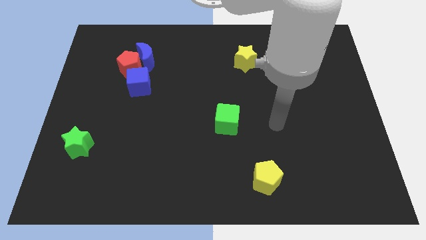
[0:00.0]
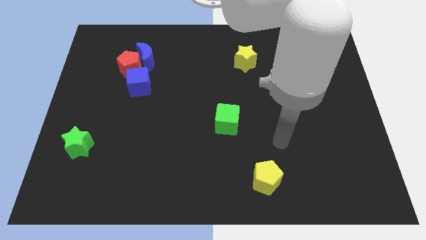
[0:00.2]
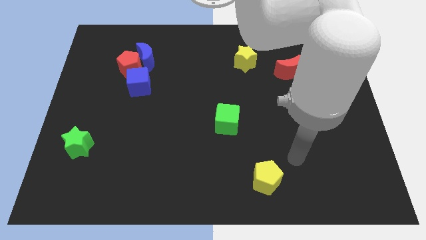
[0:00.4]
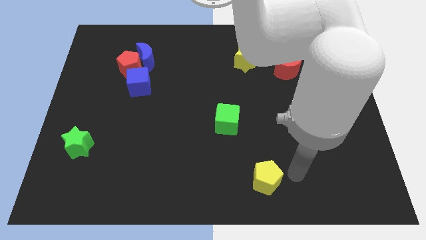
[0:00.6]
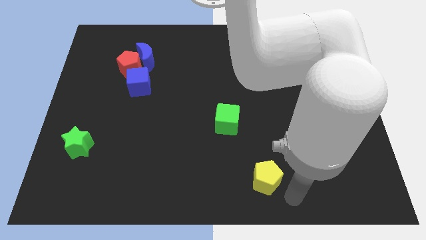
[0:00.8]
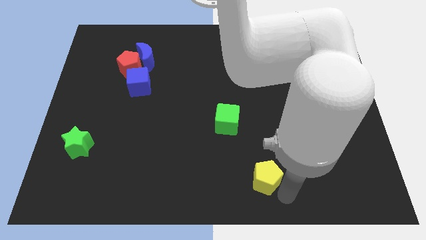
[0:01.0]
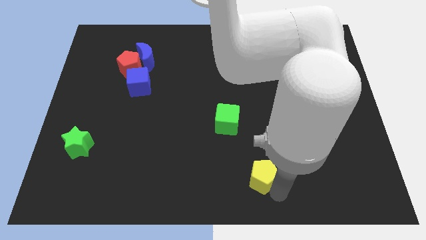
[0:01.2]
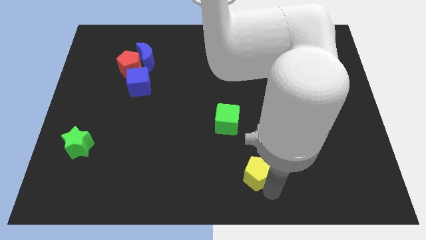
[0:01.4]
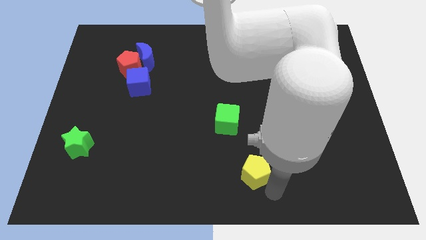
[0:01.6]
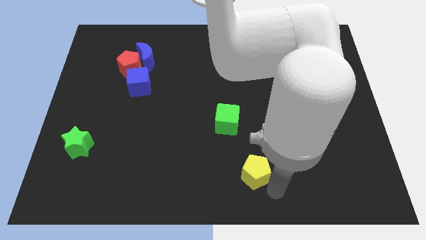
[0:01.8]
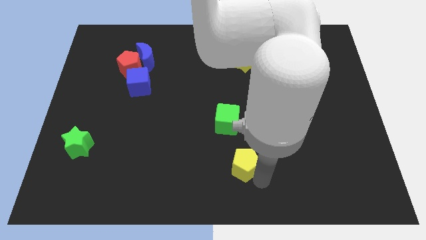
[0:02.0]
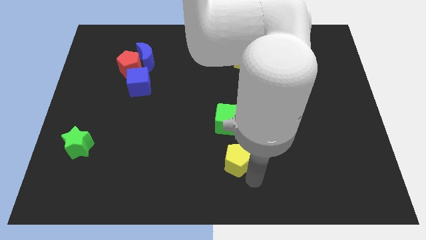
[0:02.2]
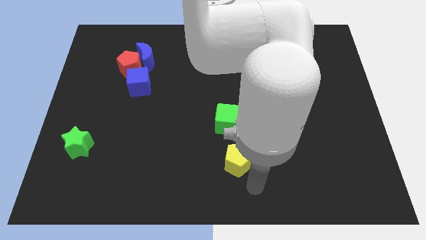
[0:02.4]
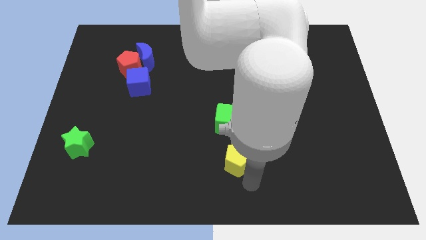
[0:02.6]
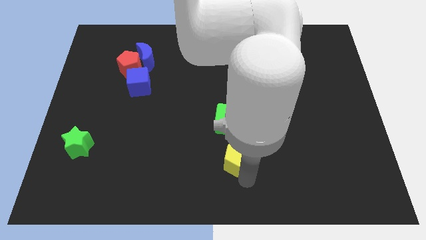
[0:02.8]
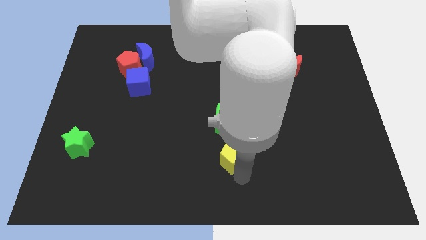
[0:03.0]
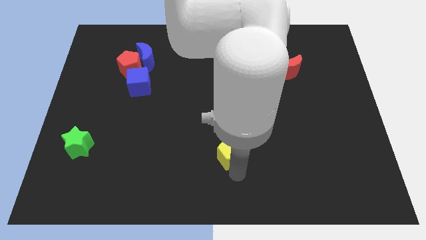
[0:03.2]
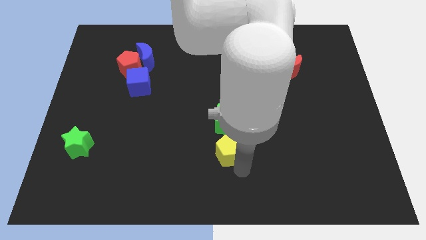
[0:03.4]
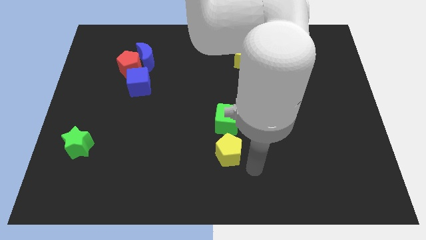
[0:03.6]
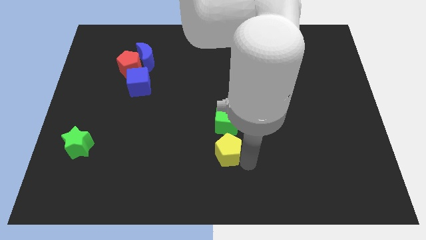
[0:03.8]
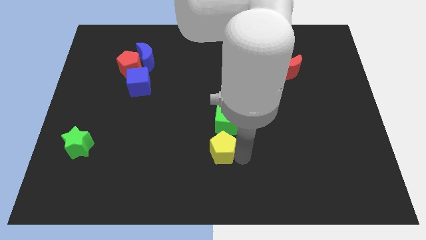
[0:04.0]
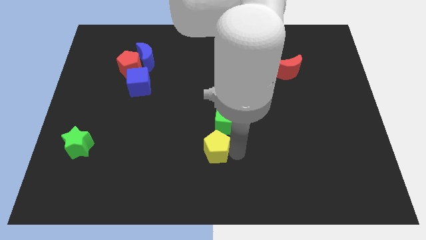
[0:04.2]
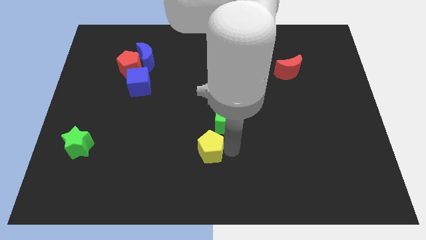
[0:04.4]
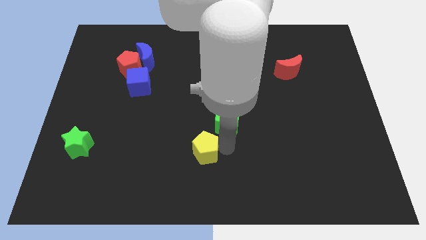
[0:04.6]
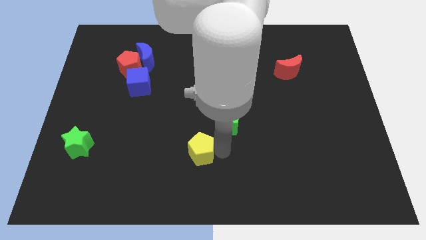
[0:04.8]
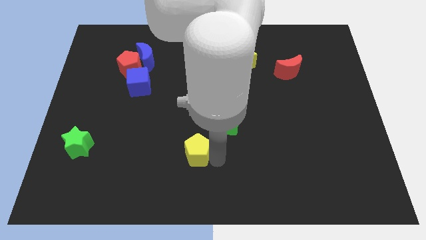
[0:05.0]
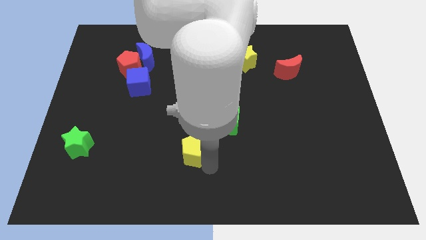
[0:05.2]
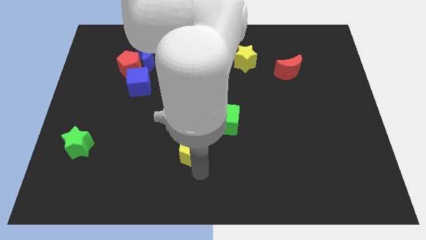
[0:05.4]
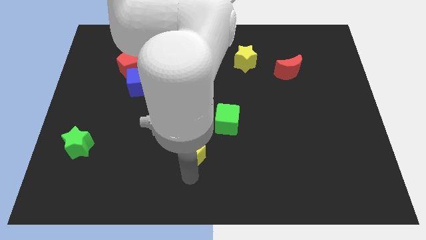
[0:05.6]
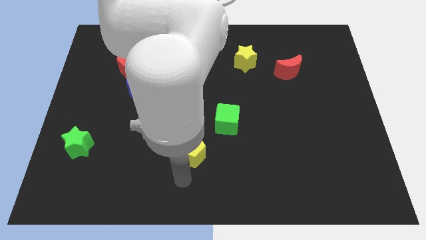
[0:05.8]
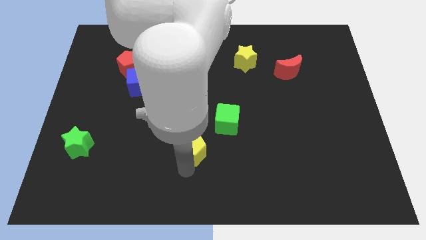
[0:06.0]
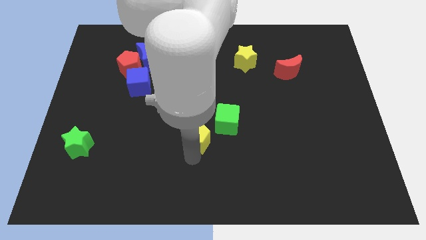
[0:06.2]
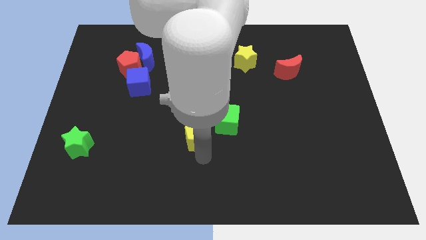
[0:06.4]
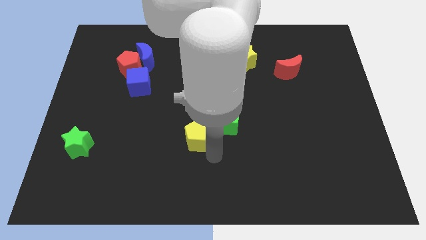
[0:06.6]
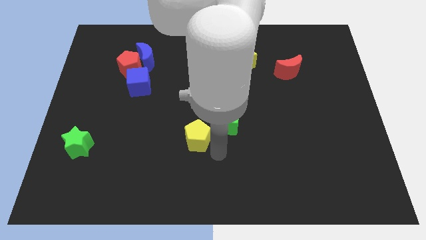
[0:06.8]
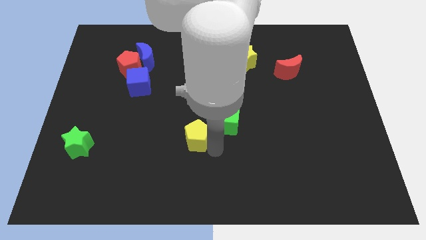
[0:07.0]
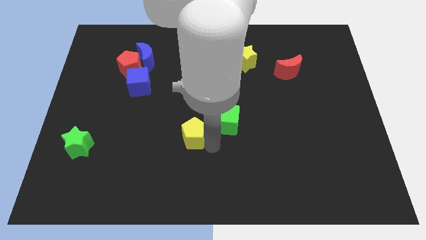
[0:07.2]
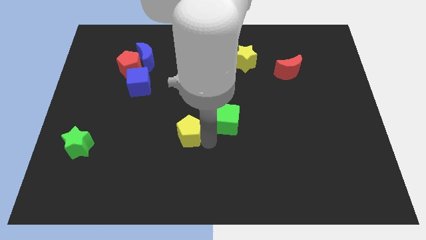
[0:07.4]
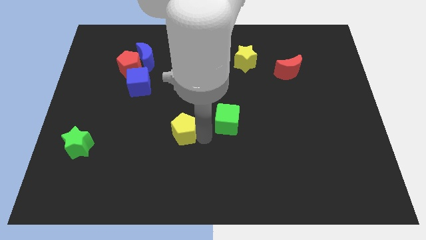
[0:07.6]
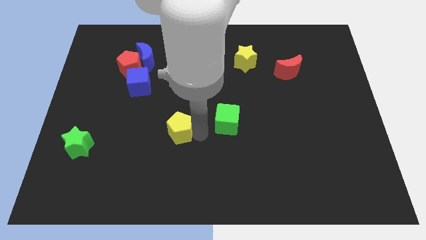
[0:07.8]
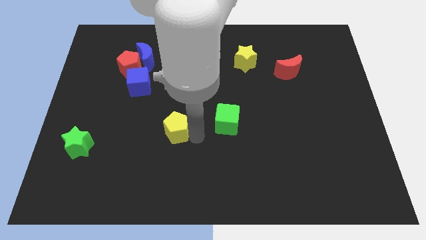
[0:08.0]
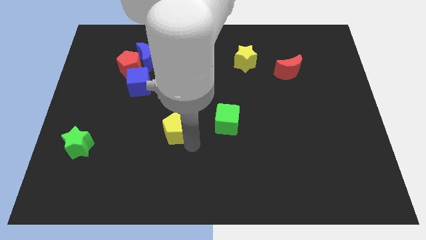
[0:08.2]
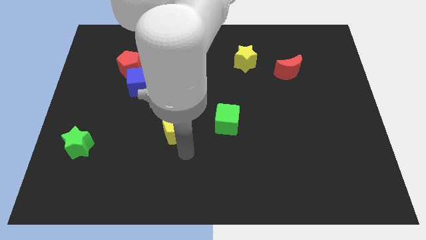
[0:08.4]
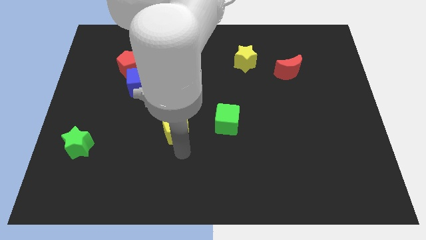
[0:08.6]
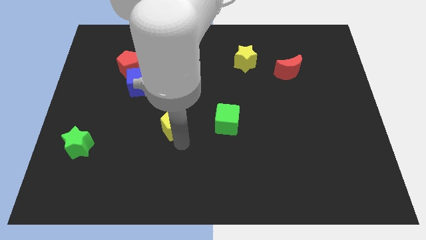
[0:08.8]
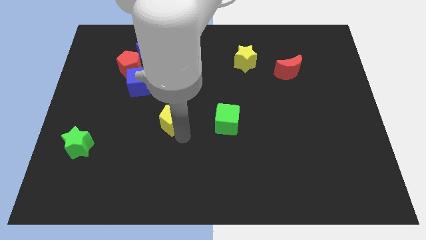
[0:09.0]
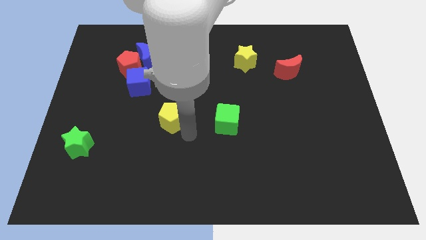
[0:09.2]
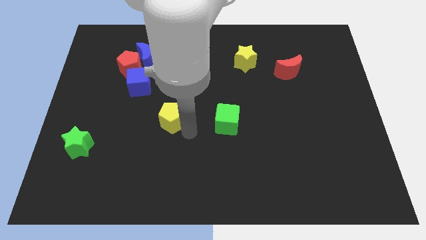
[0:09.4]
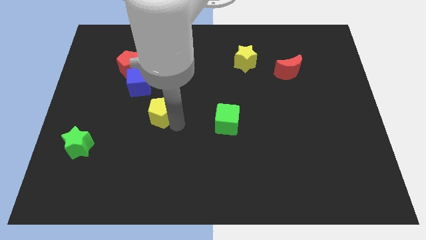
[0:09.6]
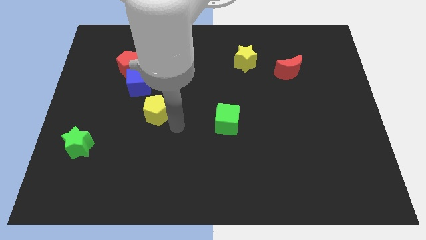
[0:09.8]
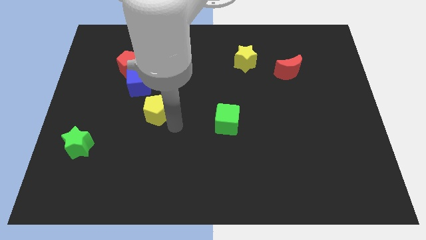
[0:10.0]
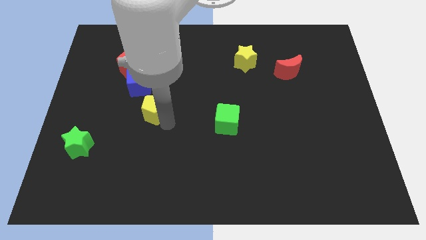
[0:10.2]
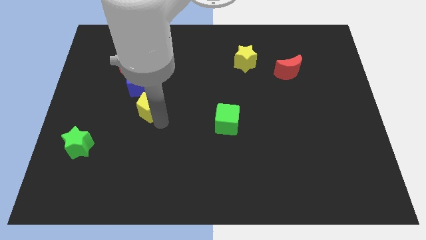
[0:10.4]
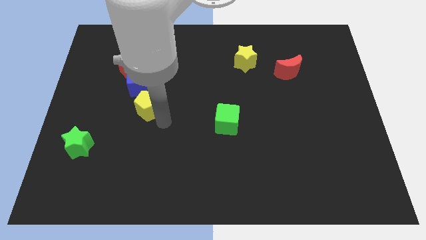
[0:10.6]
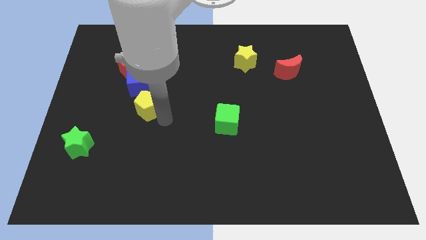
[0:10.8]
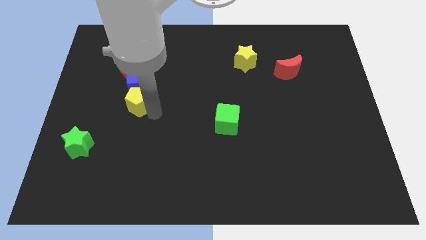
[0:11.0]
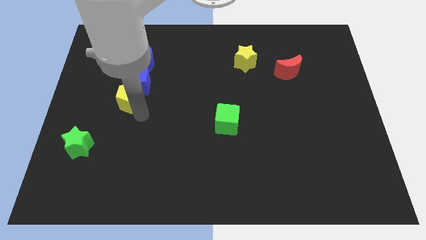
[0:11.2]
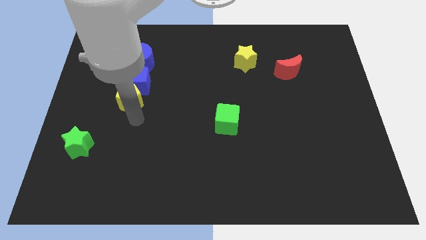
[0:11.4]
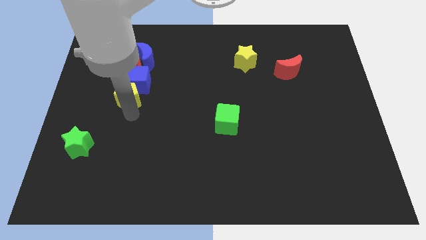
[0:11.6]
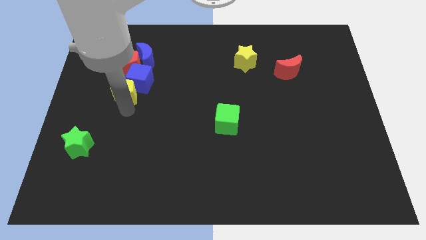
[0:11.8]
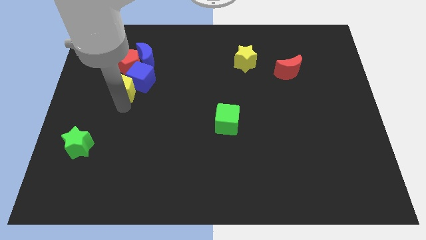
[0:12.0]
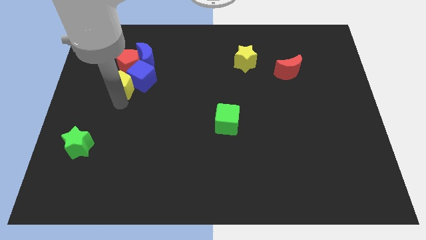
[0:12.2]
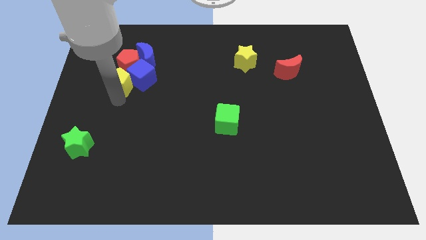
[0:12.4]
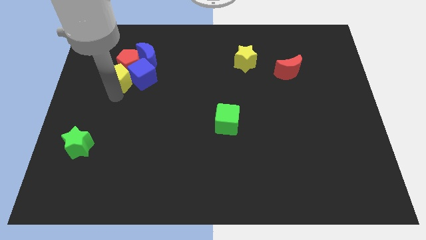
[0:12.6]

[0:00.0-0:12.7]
put the yellow pentagon to the red pentagon
